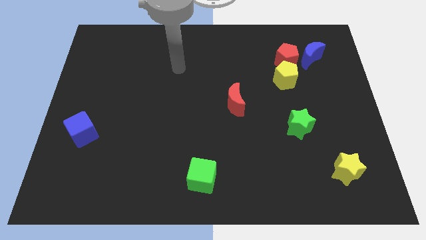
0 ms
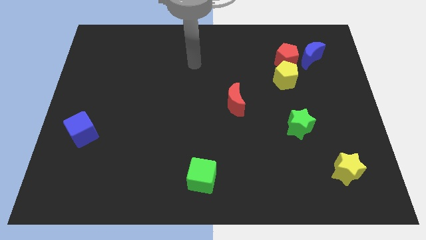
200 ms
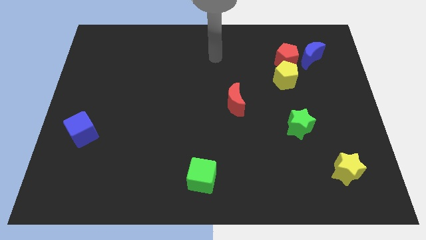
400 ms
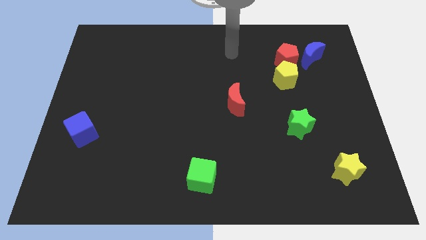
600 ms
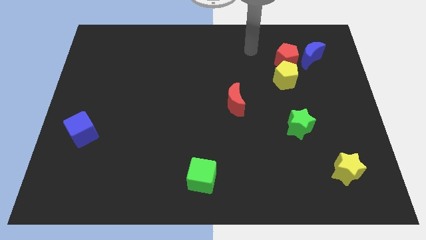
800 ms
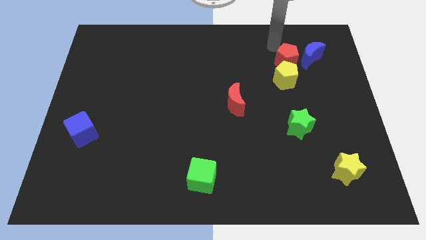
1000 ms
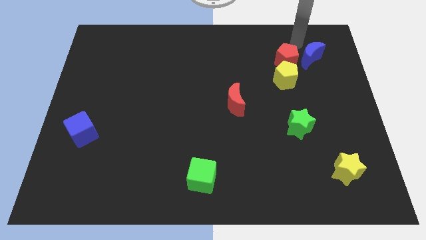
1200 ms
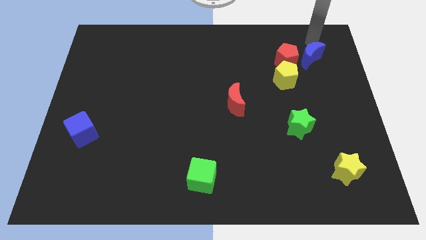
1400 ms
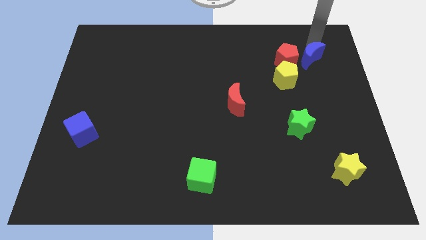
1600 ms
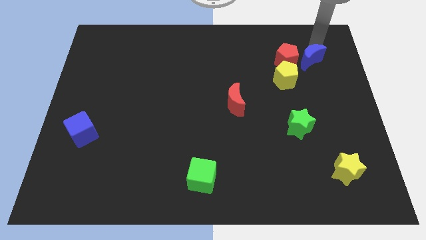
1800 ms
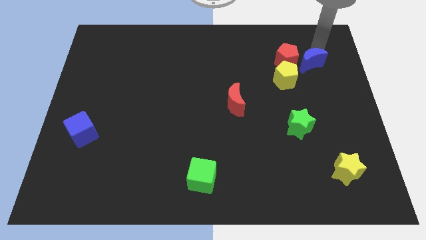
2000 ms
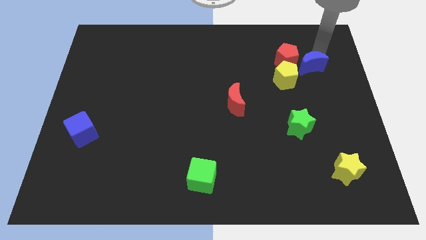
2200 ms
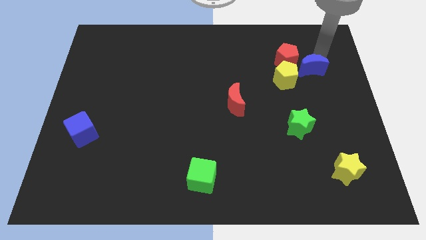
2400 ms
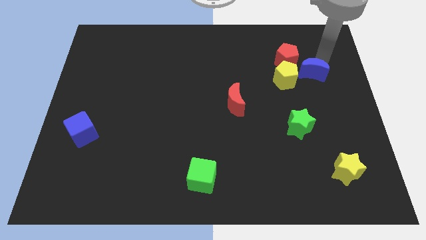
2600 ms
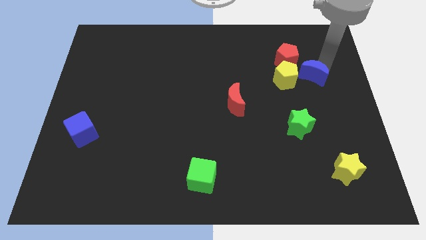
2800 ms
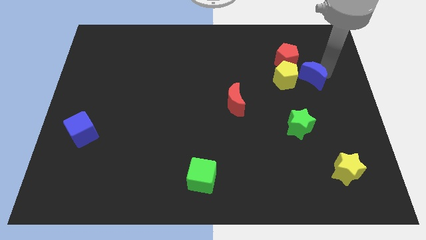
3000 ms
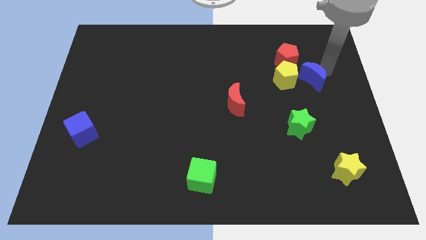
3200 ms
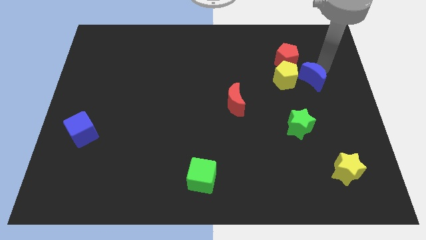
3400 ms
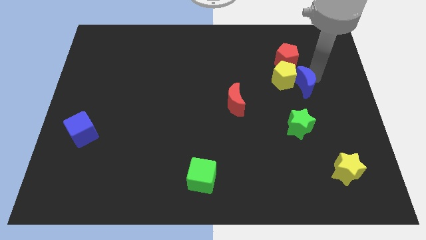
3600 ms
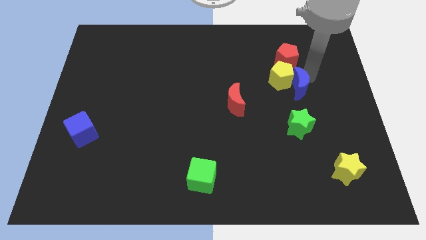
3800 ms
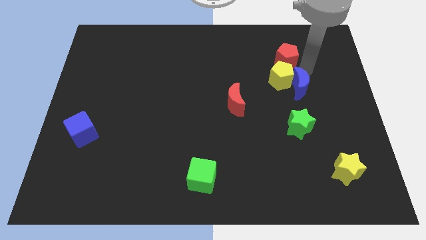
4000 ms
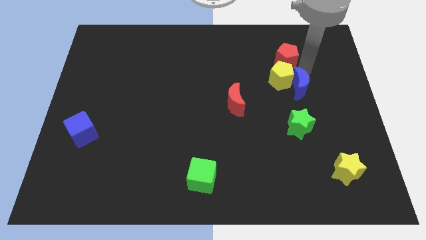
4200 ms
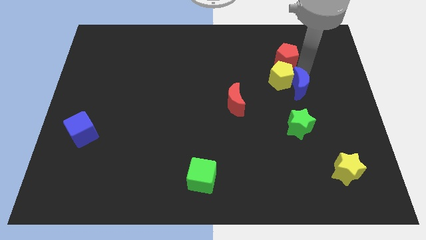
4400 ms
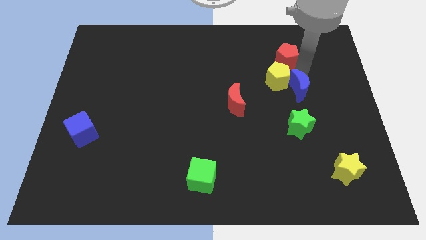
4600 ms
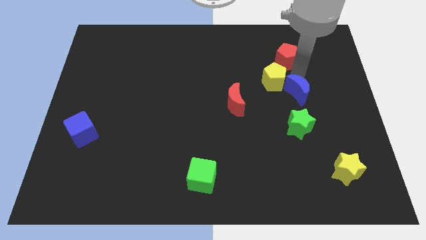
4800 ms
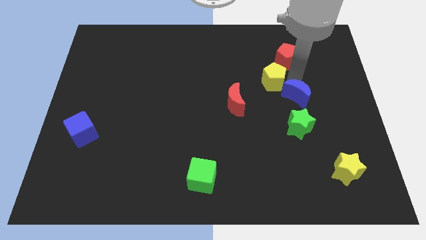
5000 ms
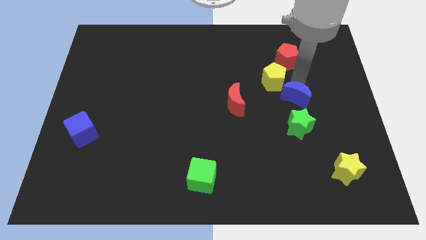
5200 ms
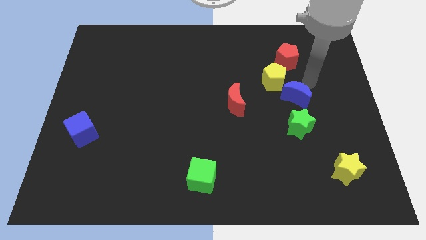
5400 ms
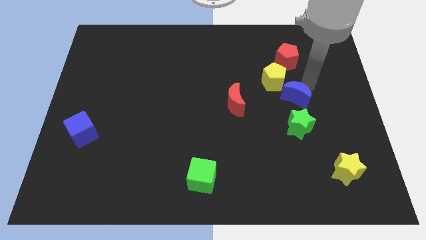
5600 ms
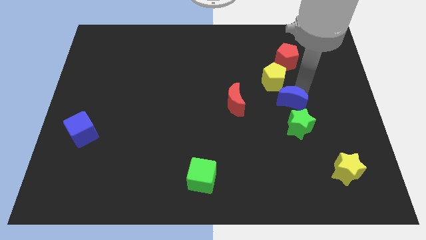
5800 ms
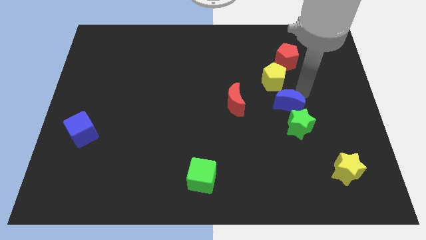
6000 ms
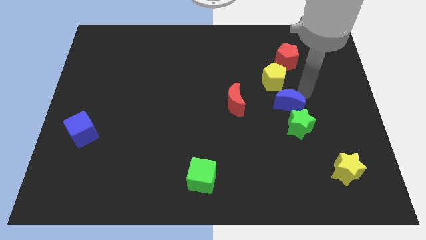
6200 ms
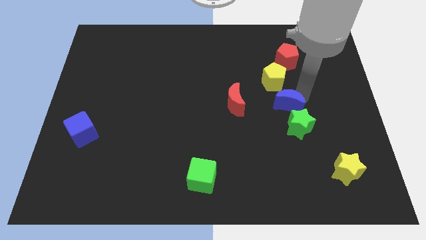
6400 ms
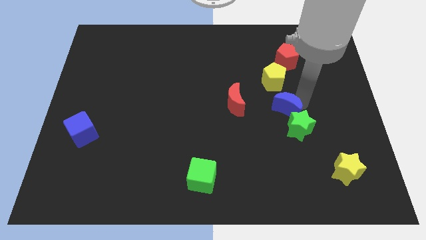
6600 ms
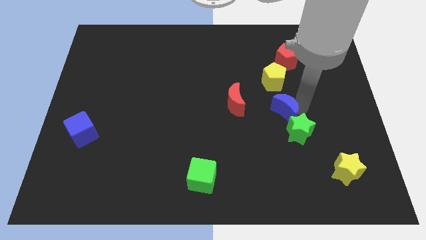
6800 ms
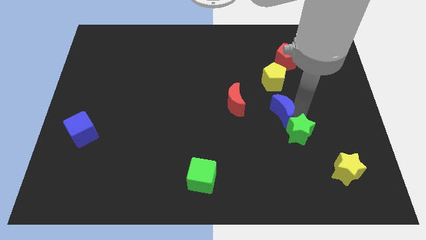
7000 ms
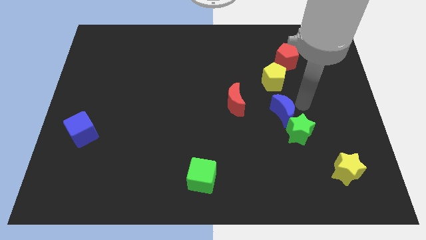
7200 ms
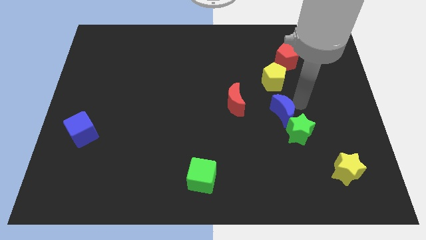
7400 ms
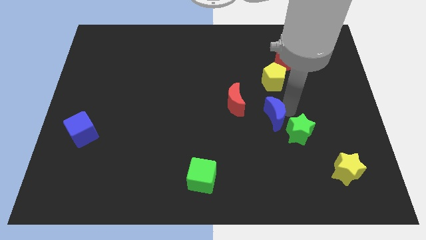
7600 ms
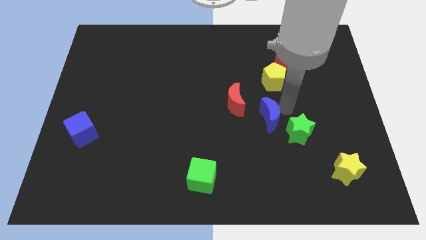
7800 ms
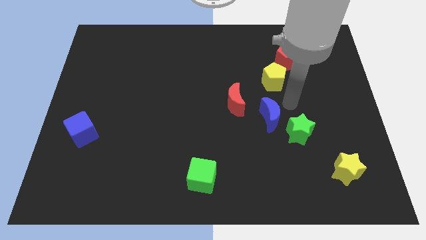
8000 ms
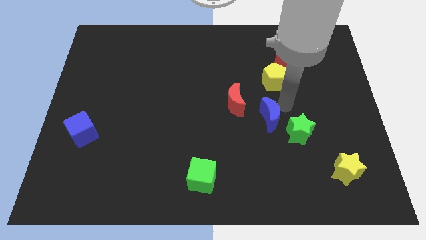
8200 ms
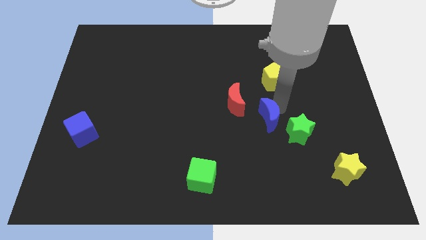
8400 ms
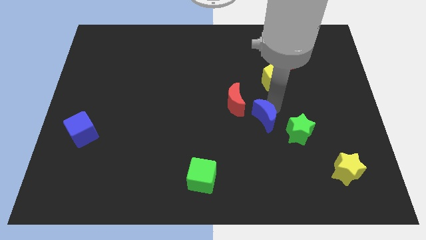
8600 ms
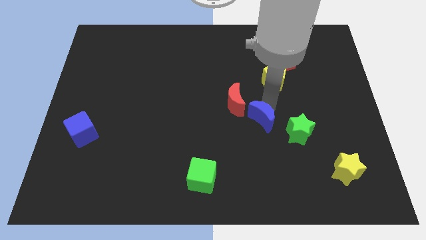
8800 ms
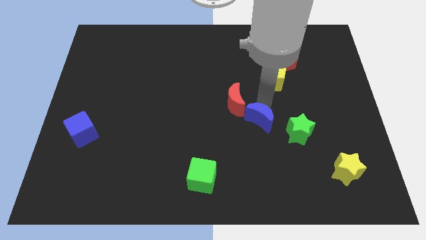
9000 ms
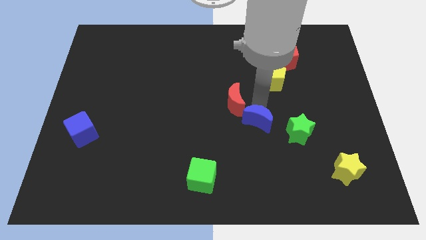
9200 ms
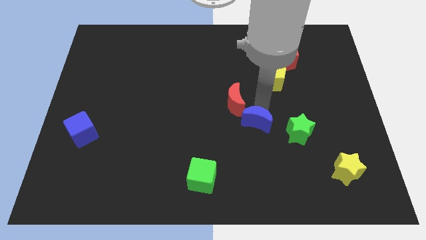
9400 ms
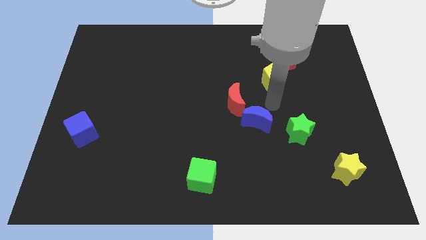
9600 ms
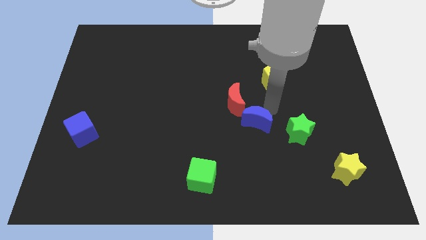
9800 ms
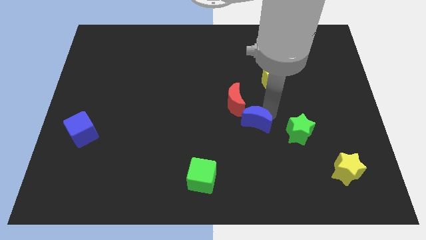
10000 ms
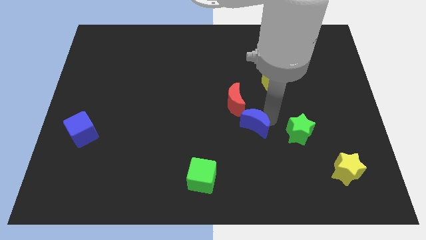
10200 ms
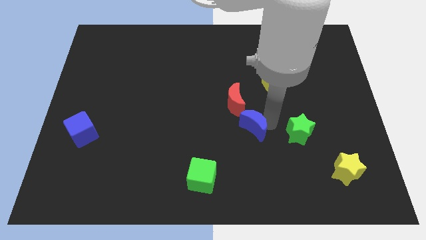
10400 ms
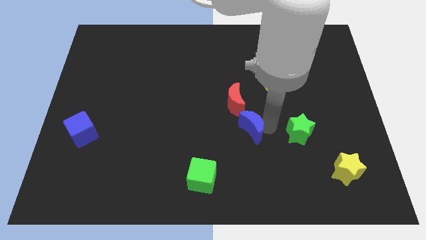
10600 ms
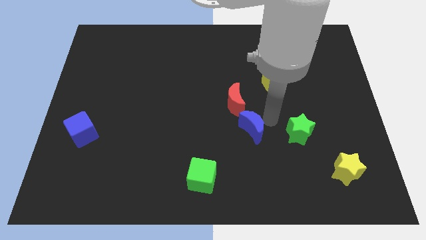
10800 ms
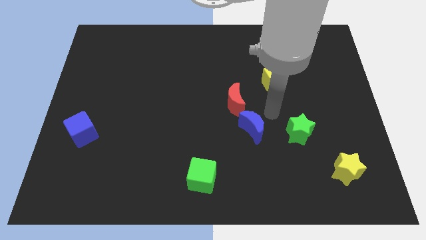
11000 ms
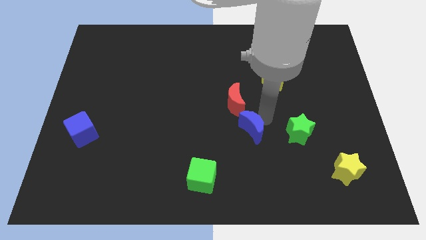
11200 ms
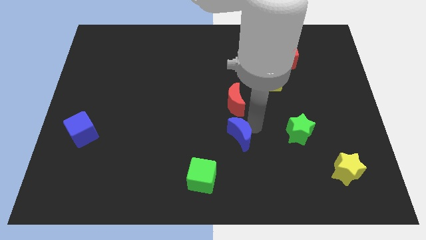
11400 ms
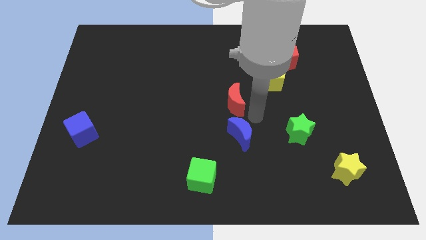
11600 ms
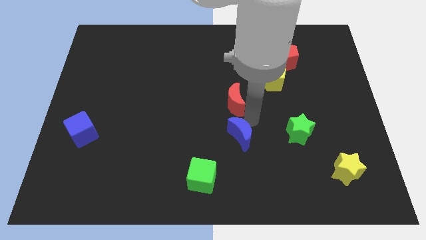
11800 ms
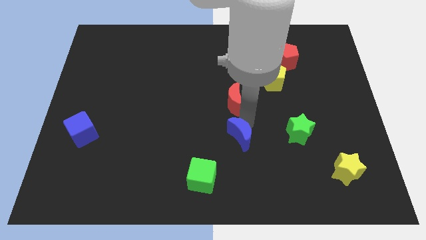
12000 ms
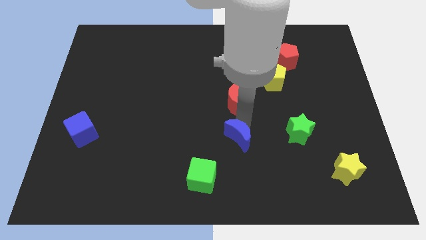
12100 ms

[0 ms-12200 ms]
push the blue moon to the top right of the green cube

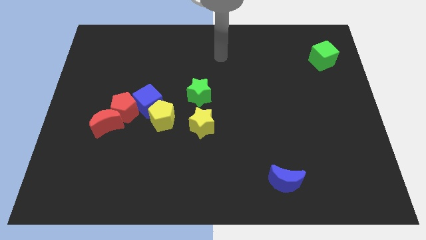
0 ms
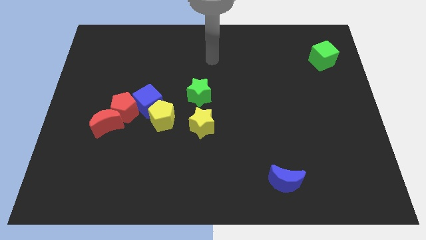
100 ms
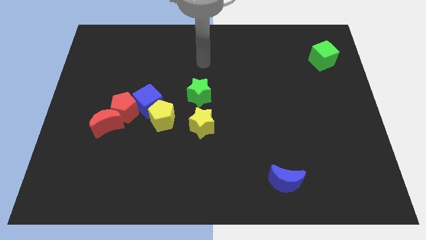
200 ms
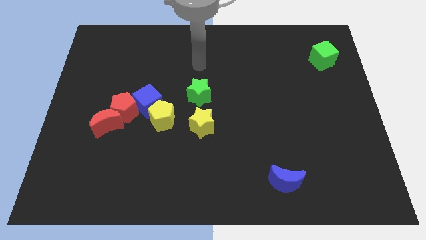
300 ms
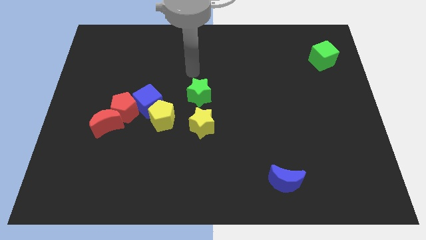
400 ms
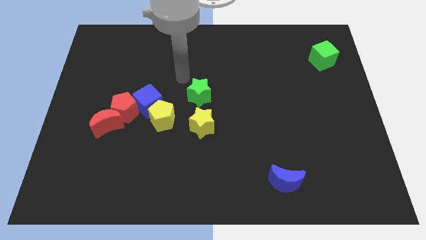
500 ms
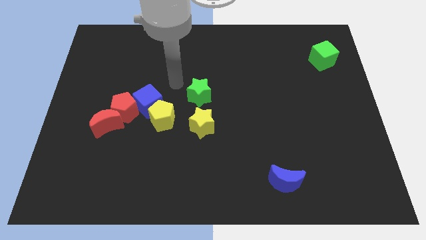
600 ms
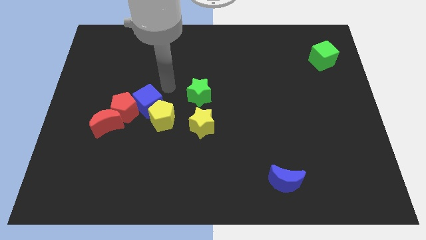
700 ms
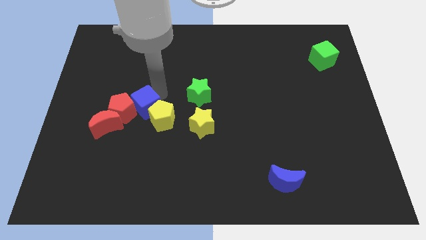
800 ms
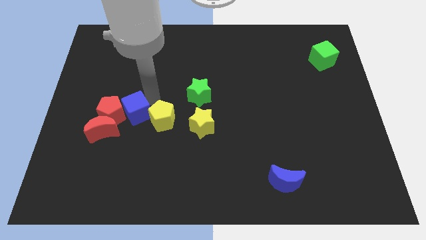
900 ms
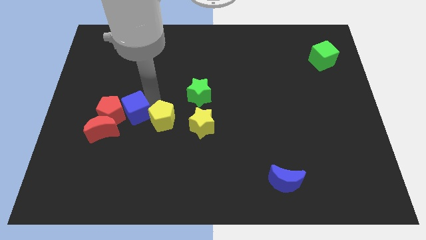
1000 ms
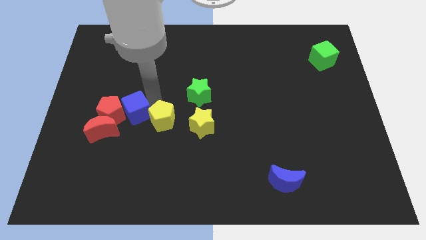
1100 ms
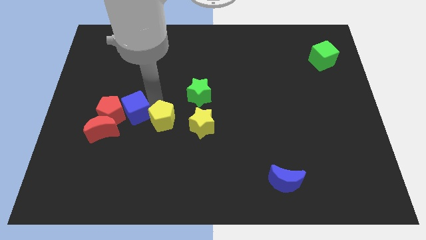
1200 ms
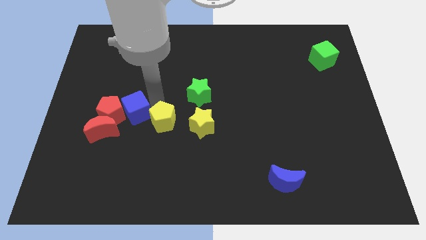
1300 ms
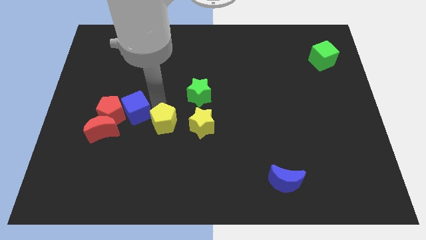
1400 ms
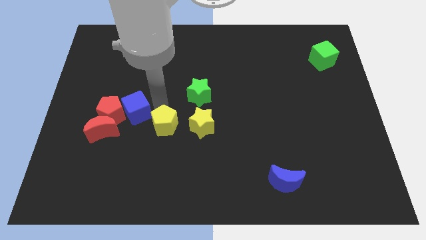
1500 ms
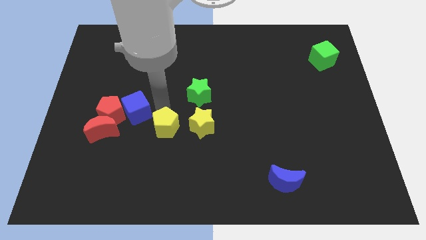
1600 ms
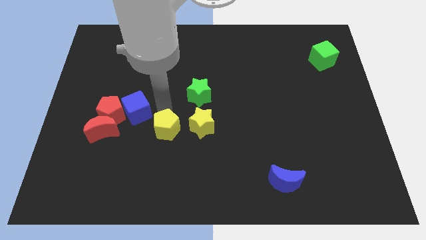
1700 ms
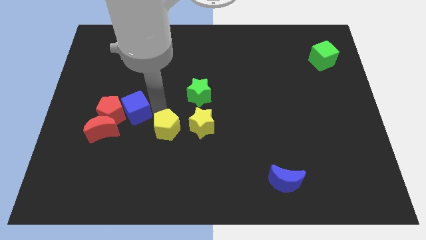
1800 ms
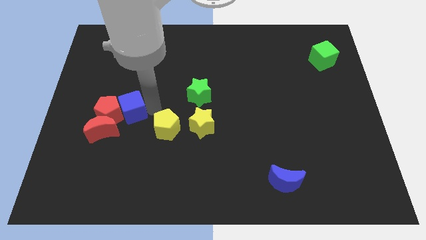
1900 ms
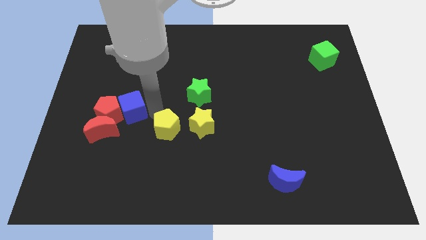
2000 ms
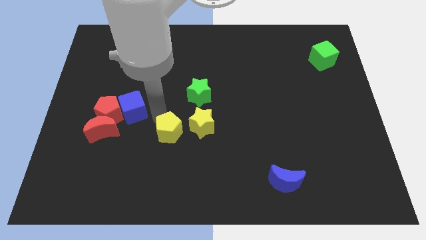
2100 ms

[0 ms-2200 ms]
move the yellow pentagon to the bottom left side of the yellow star
